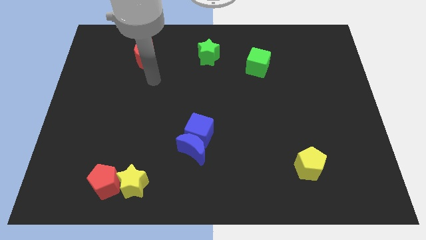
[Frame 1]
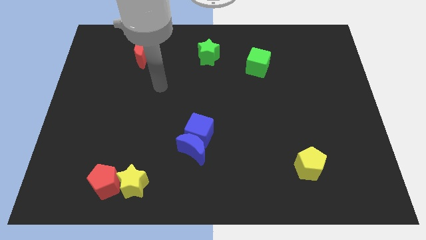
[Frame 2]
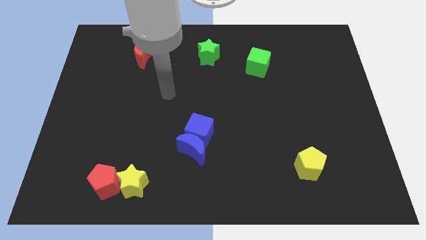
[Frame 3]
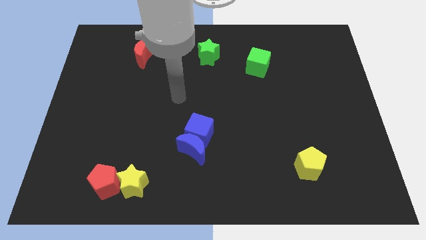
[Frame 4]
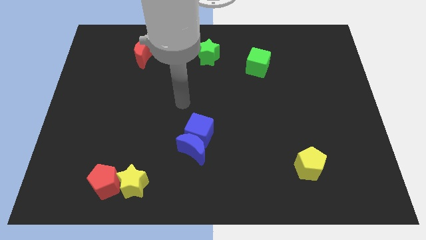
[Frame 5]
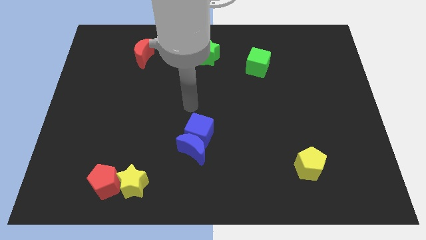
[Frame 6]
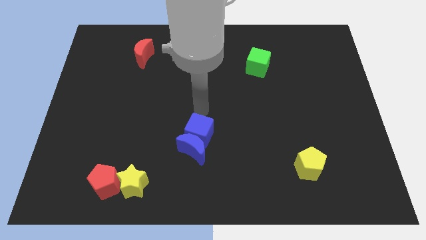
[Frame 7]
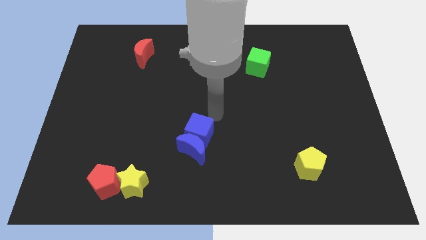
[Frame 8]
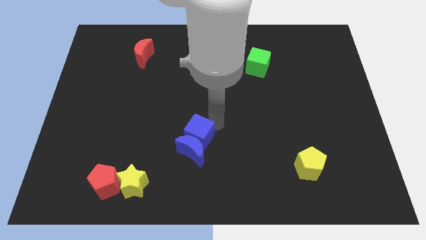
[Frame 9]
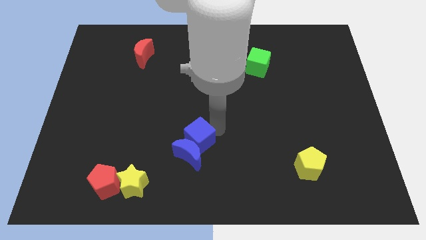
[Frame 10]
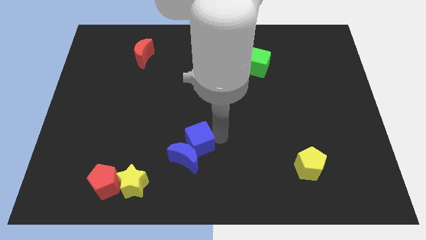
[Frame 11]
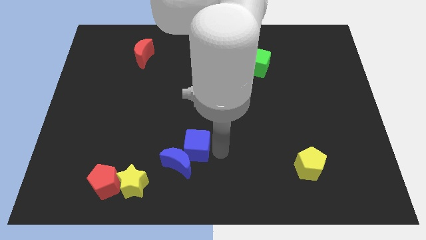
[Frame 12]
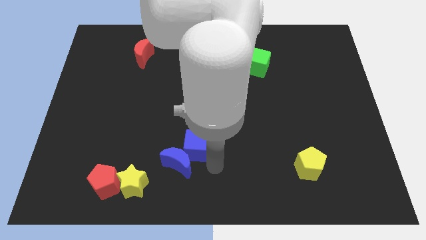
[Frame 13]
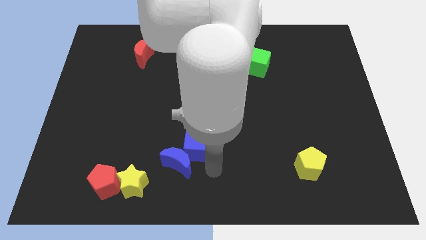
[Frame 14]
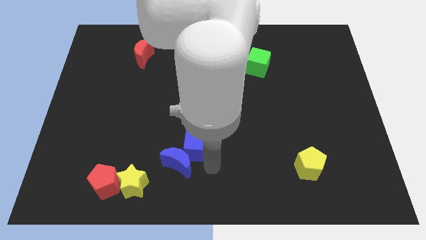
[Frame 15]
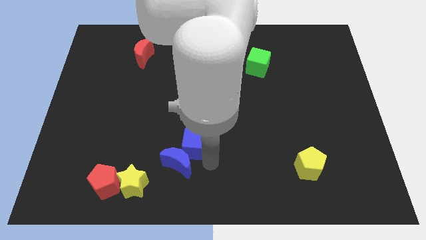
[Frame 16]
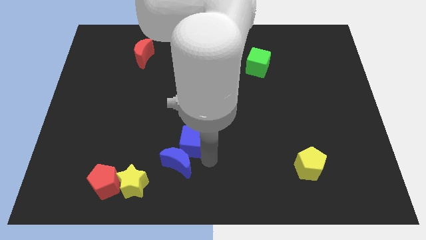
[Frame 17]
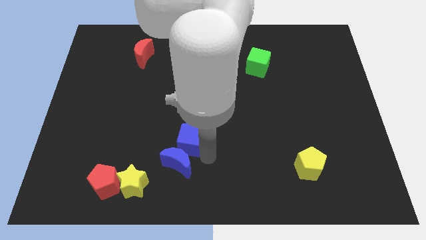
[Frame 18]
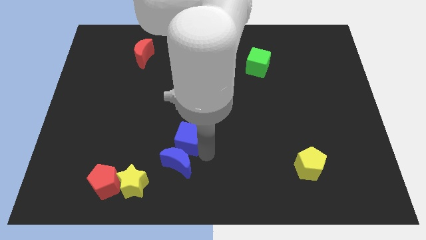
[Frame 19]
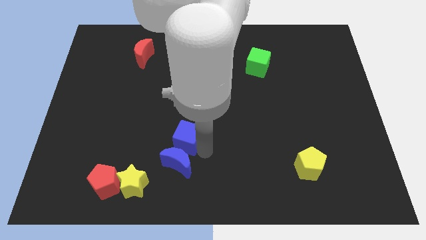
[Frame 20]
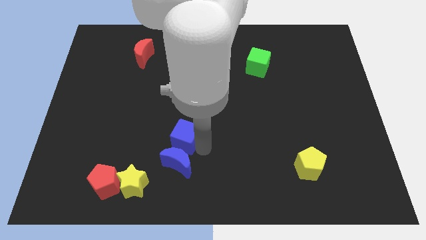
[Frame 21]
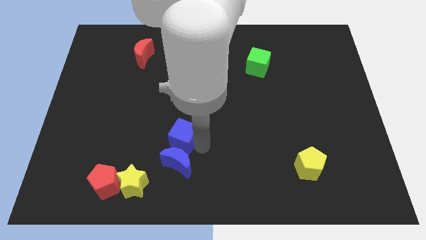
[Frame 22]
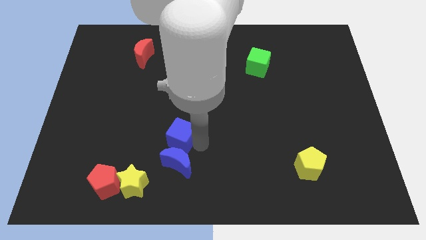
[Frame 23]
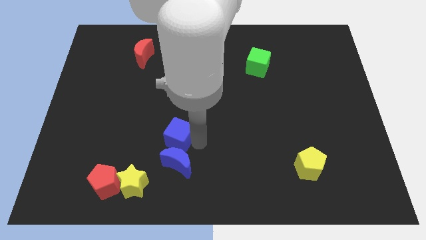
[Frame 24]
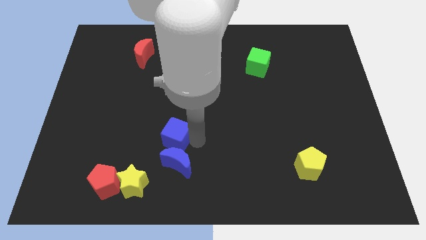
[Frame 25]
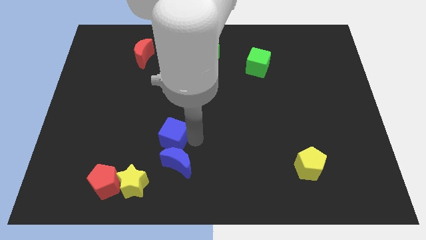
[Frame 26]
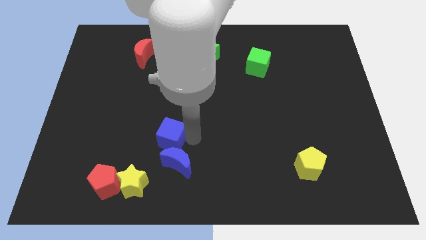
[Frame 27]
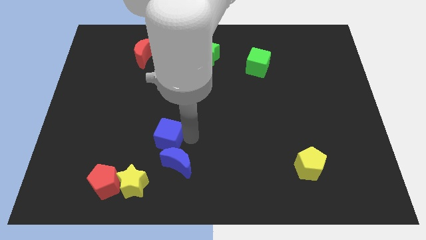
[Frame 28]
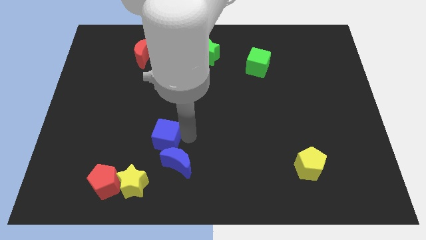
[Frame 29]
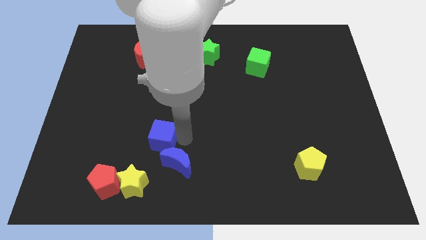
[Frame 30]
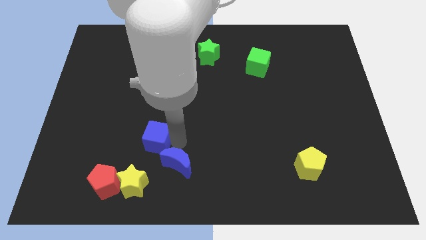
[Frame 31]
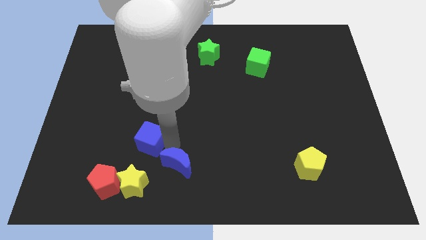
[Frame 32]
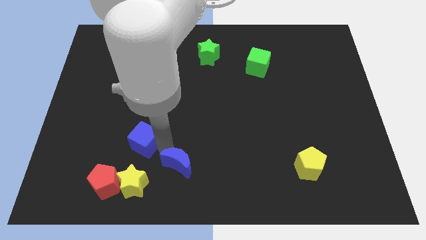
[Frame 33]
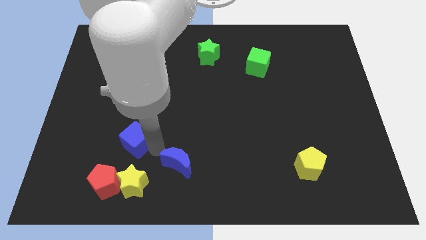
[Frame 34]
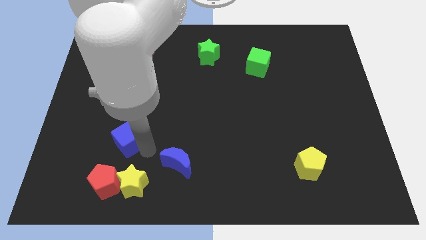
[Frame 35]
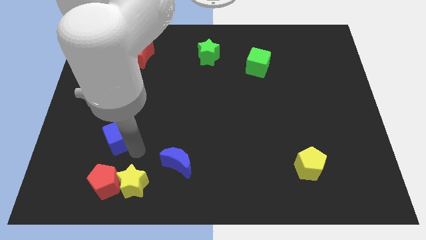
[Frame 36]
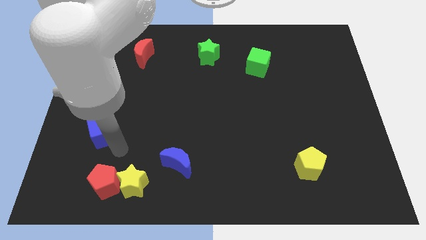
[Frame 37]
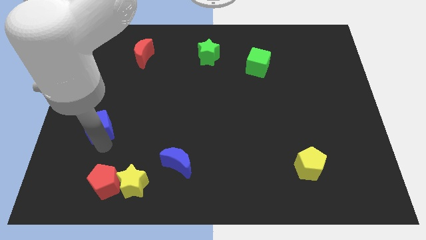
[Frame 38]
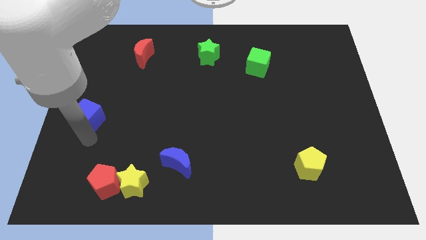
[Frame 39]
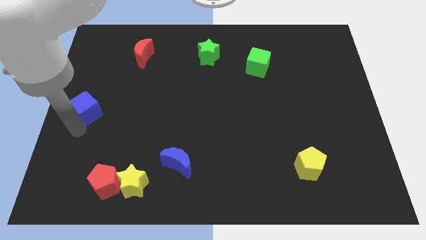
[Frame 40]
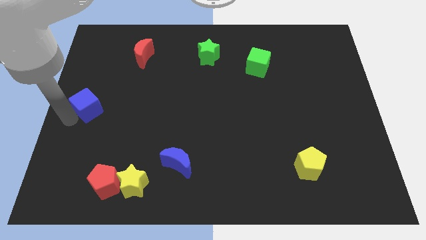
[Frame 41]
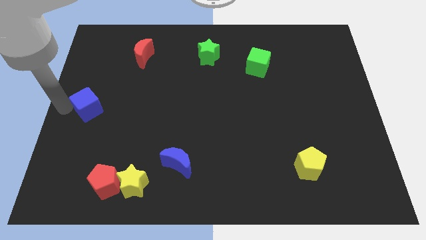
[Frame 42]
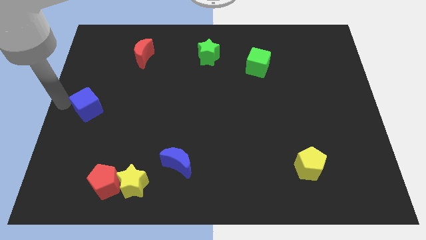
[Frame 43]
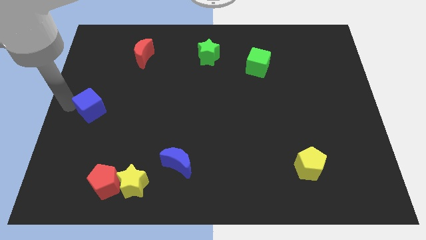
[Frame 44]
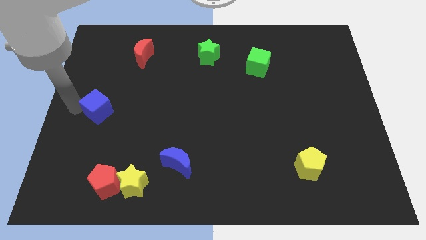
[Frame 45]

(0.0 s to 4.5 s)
slide the blue cube up and left somewhat

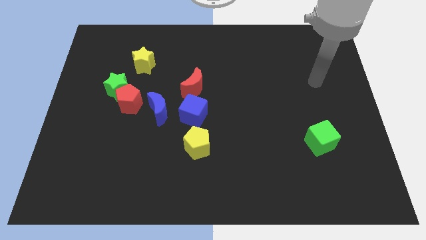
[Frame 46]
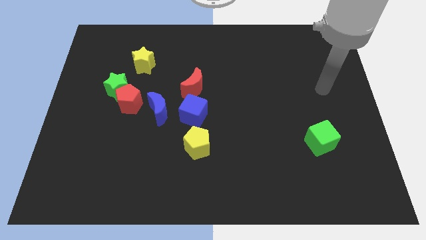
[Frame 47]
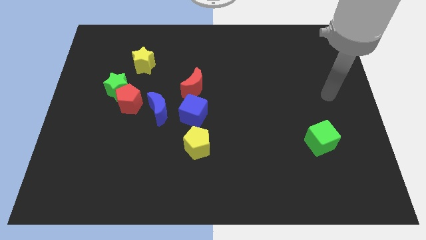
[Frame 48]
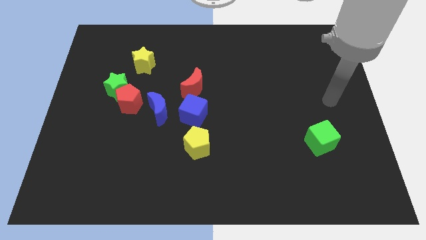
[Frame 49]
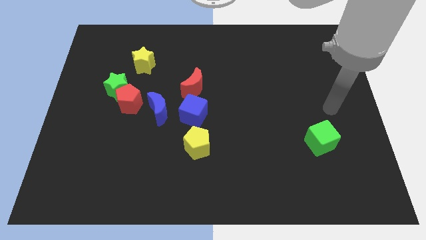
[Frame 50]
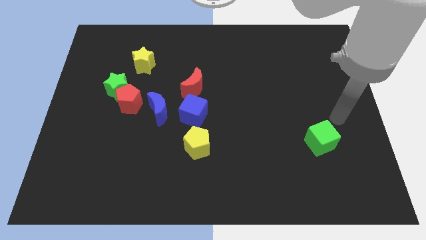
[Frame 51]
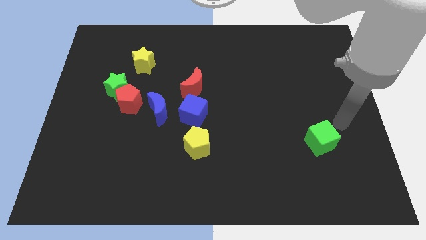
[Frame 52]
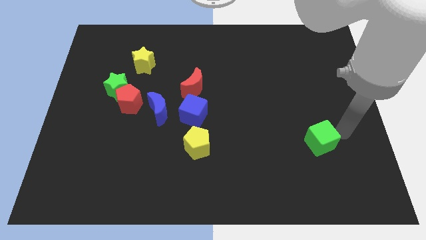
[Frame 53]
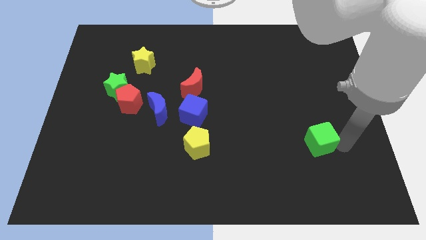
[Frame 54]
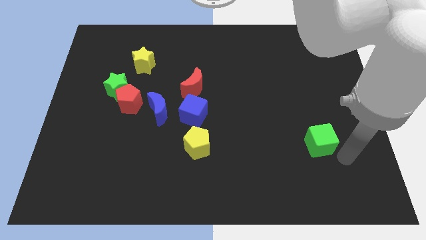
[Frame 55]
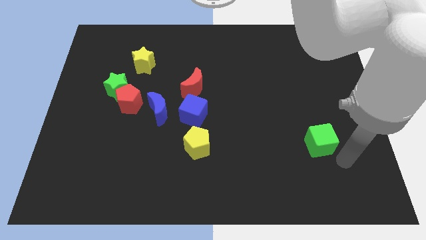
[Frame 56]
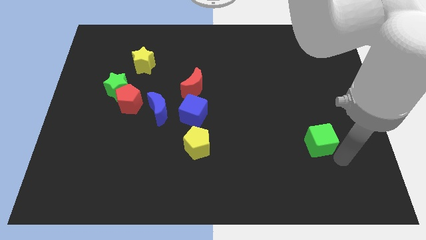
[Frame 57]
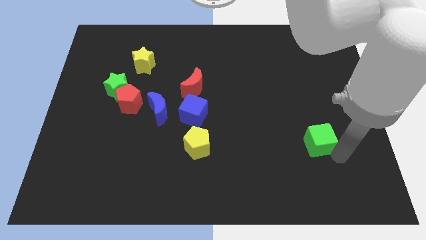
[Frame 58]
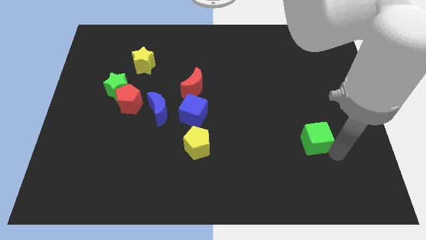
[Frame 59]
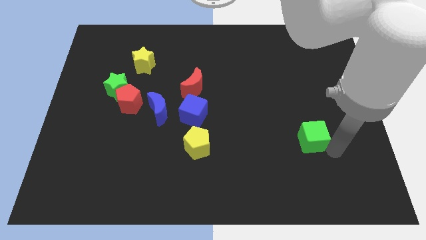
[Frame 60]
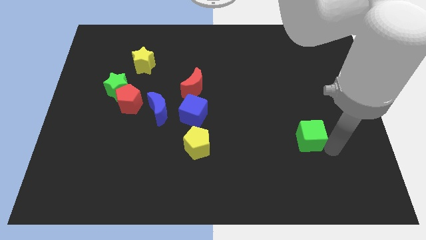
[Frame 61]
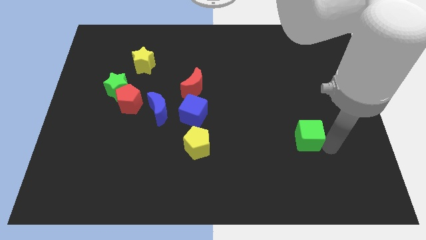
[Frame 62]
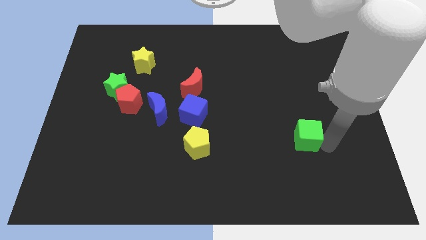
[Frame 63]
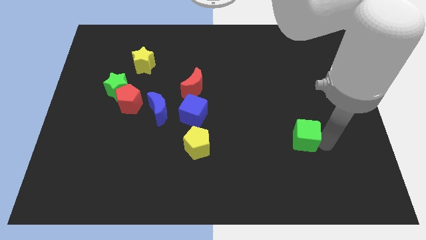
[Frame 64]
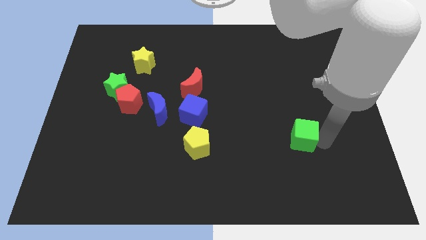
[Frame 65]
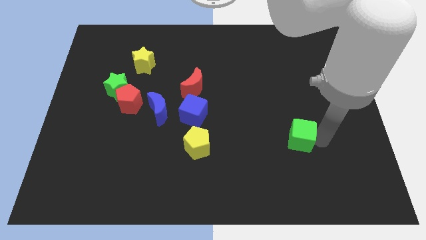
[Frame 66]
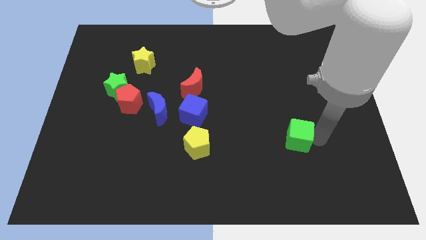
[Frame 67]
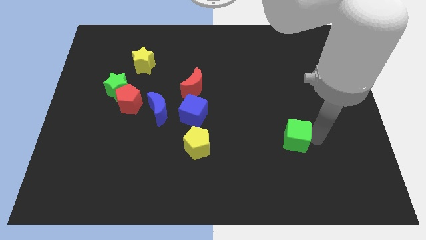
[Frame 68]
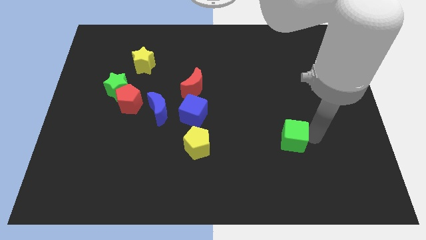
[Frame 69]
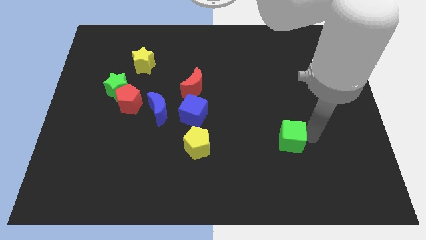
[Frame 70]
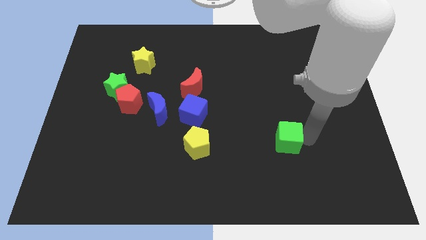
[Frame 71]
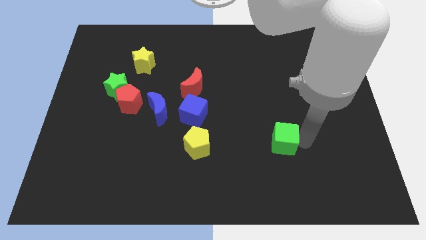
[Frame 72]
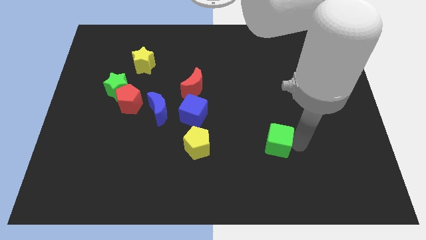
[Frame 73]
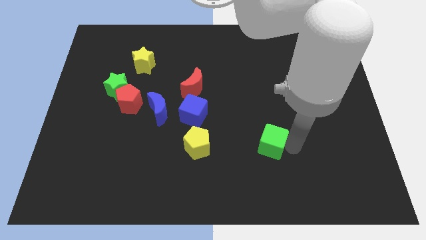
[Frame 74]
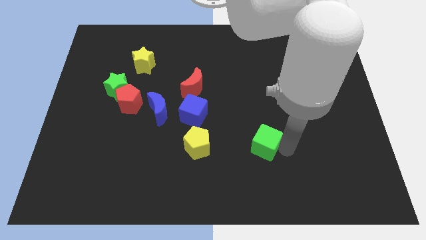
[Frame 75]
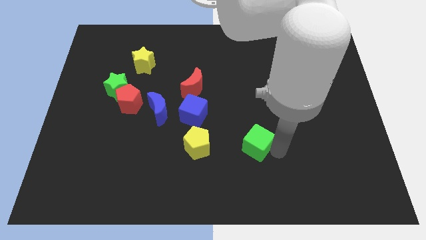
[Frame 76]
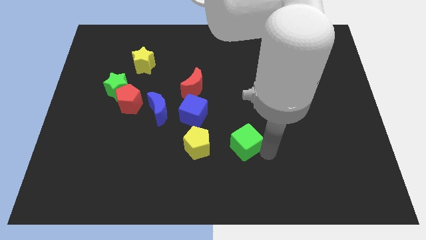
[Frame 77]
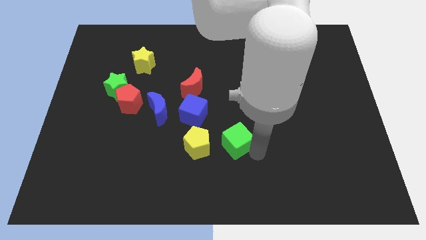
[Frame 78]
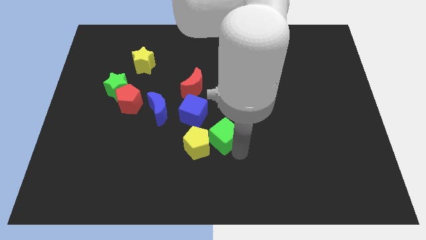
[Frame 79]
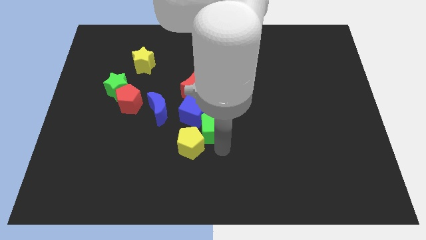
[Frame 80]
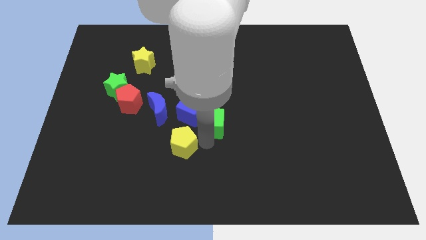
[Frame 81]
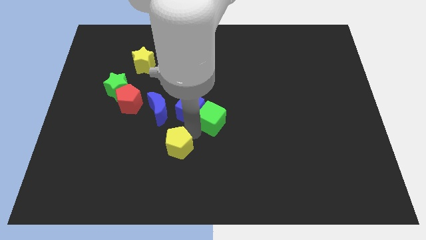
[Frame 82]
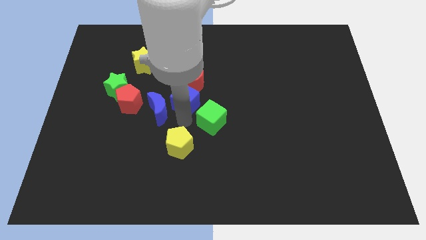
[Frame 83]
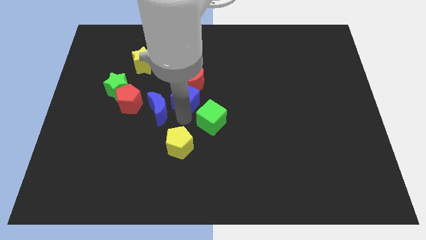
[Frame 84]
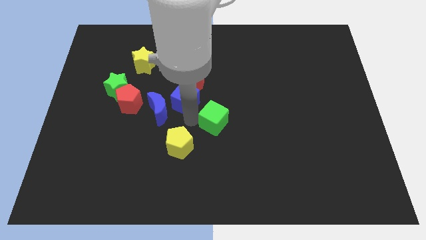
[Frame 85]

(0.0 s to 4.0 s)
slightly push the green cube diagonally up and left
